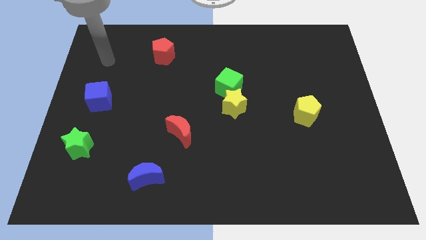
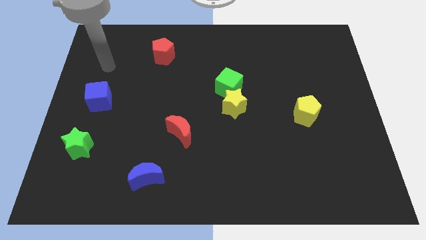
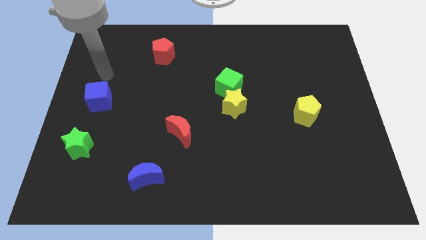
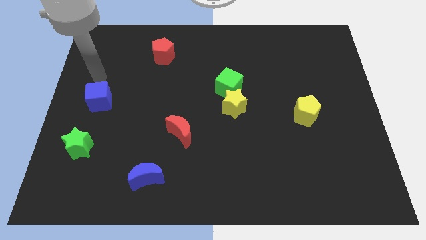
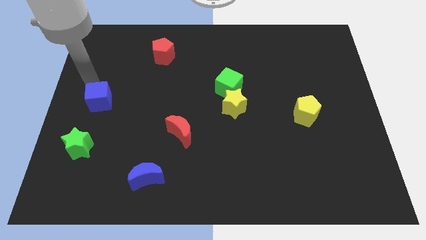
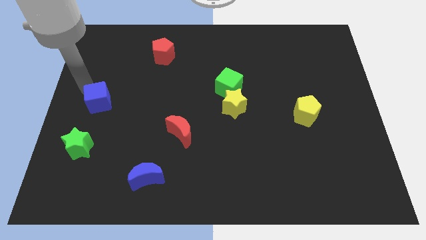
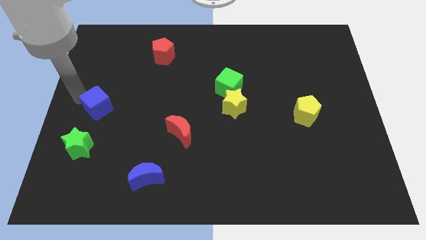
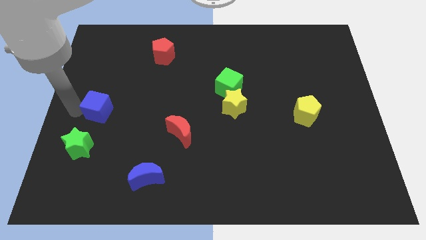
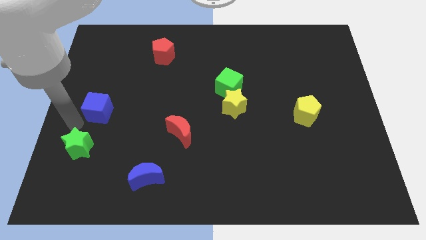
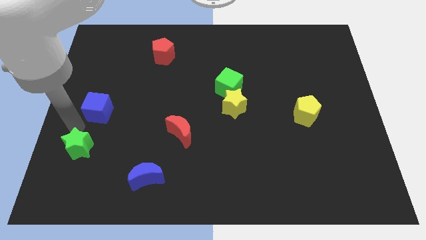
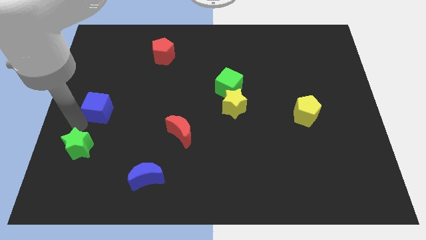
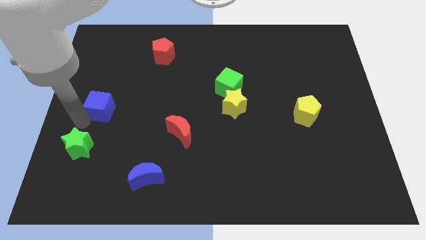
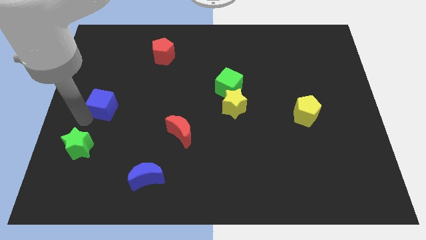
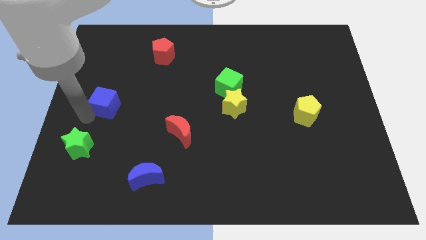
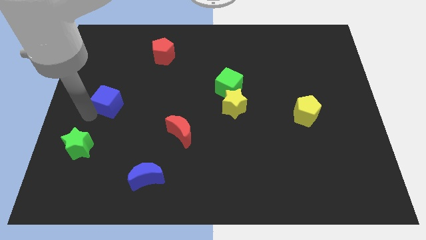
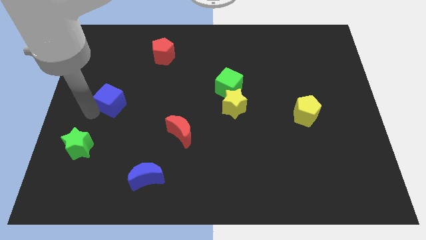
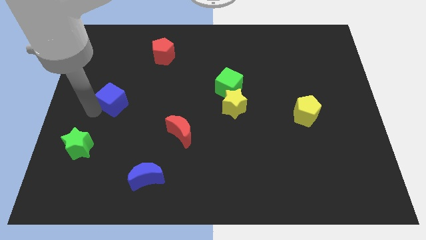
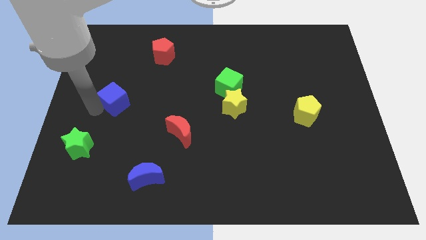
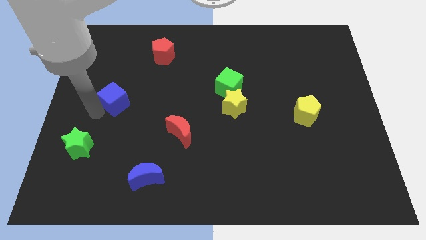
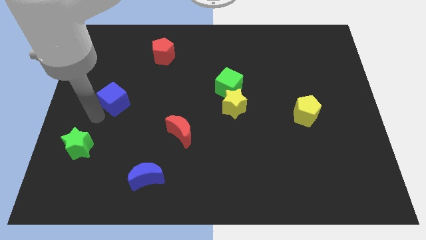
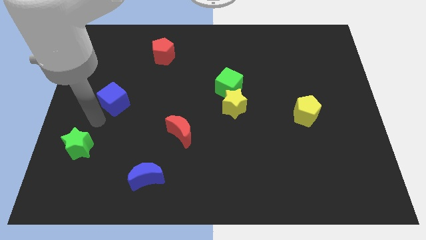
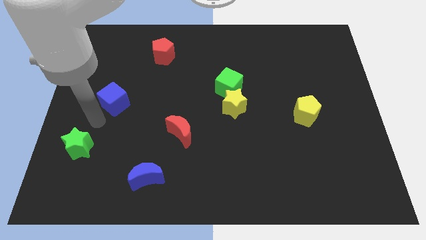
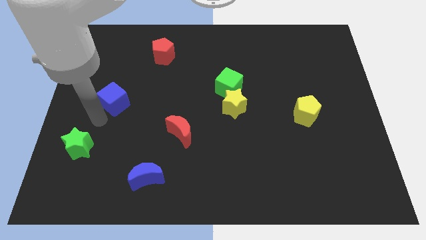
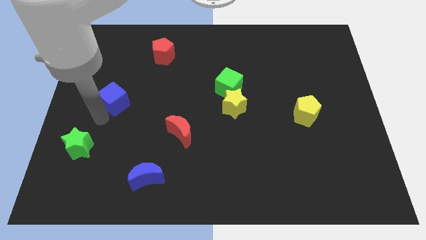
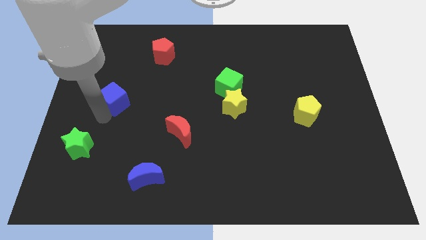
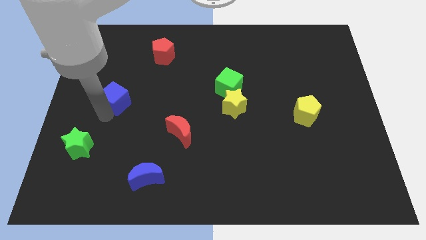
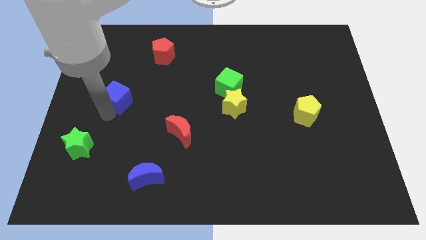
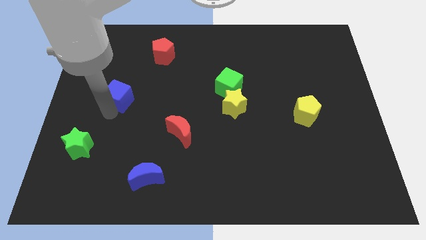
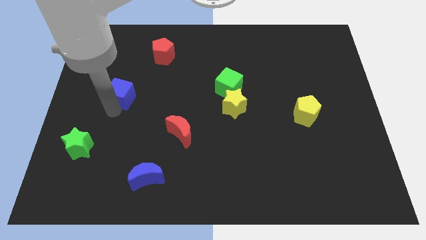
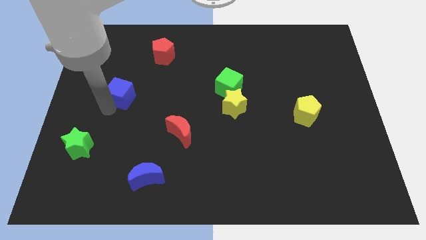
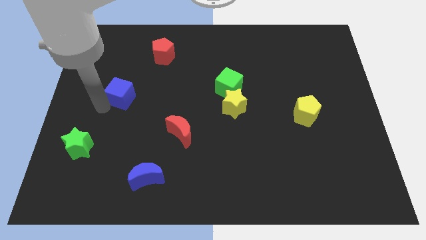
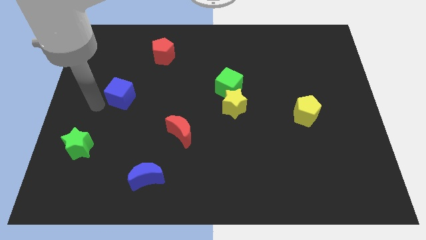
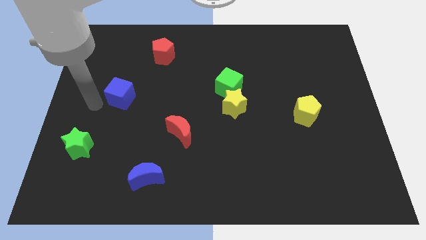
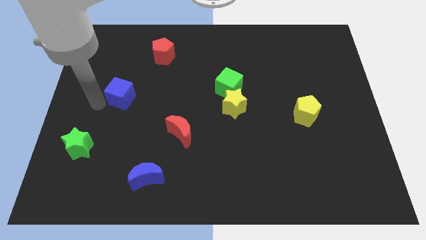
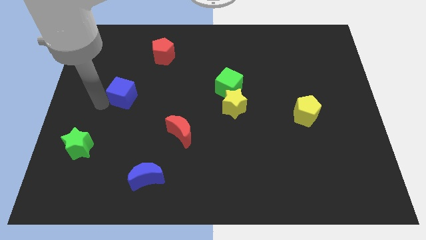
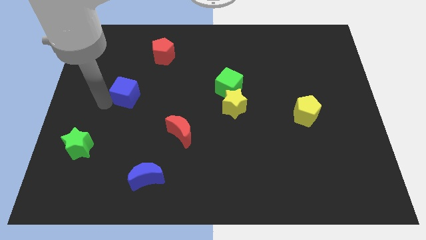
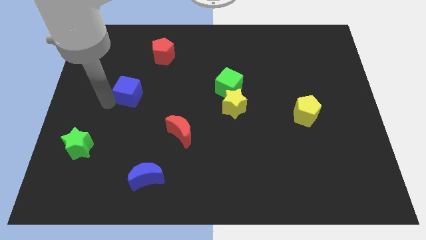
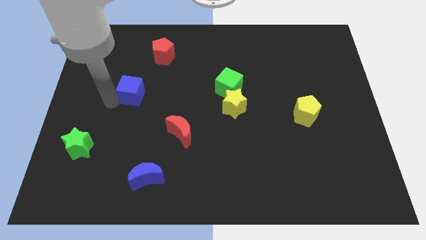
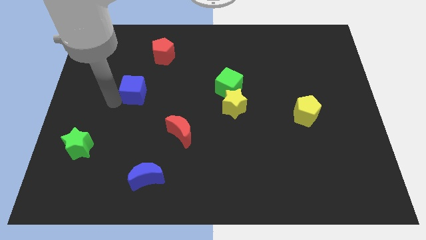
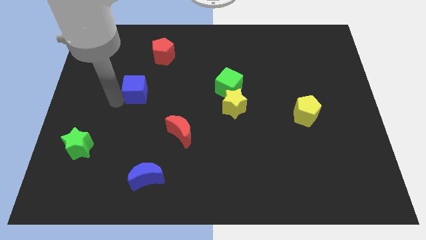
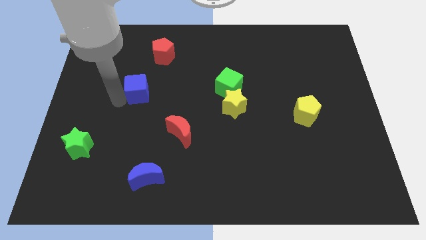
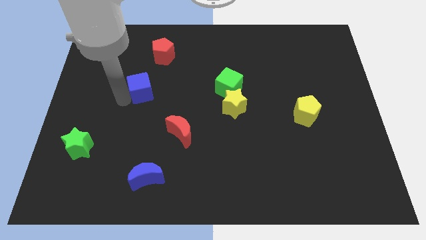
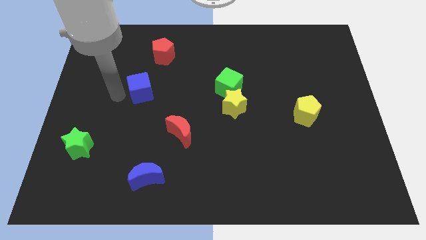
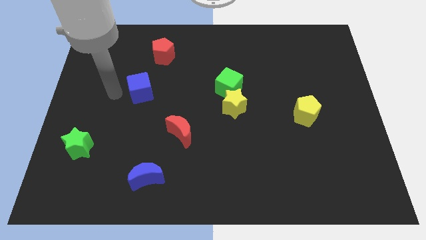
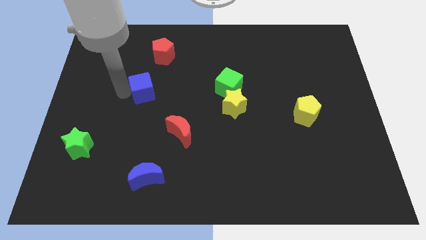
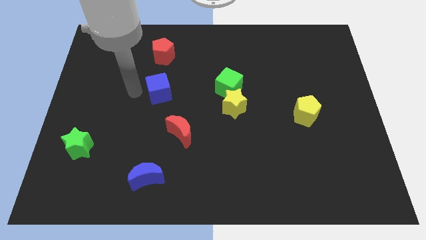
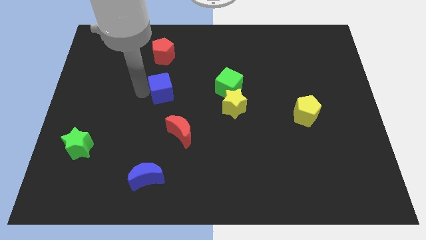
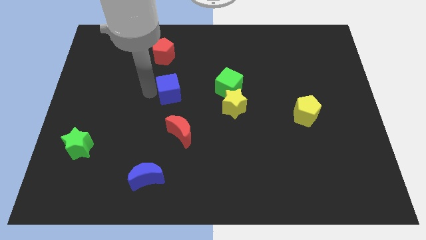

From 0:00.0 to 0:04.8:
put the blue cube just left of the green cube

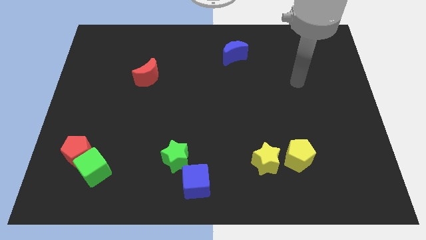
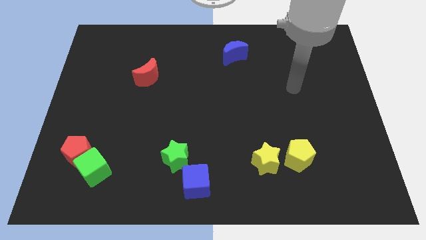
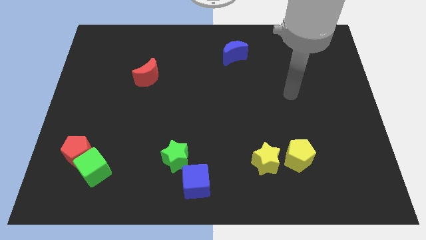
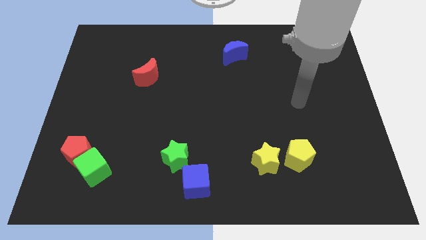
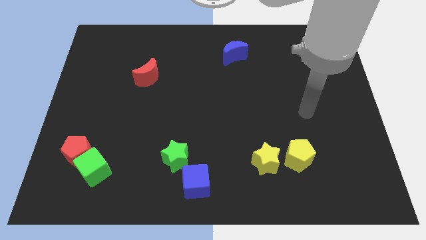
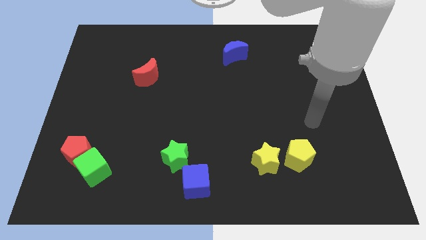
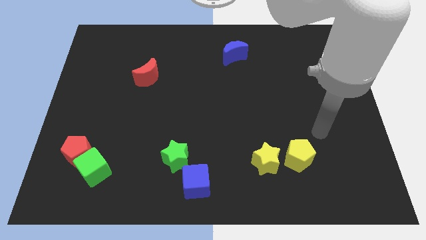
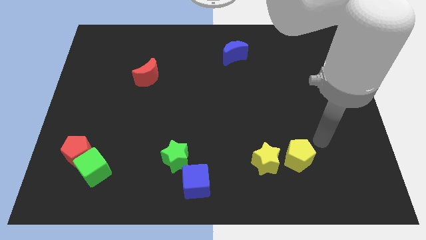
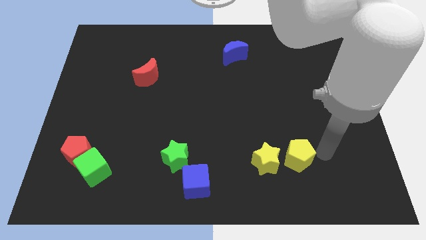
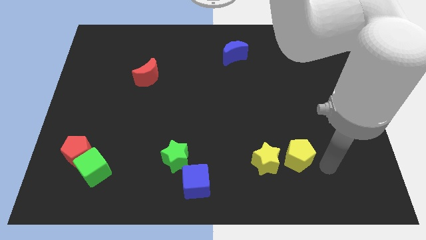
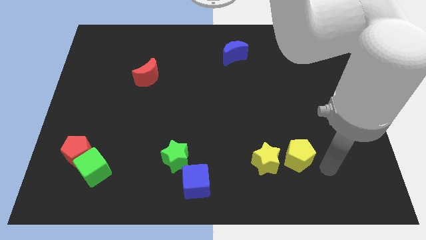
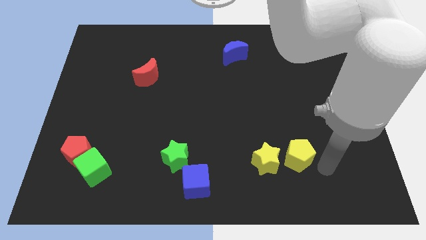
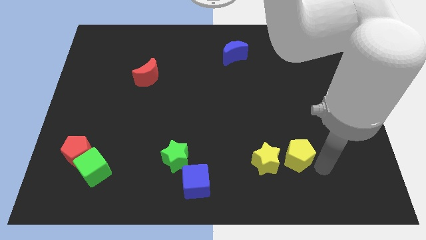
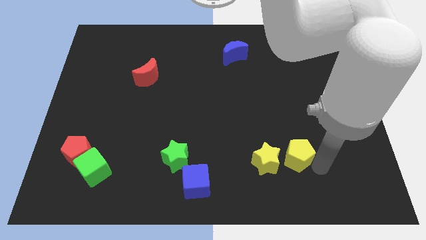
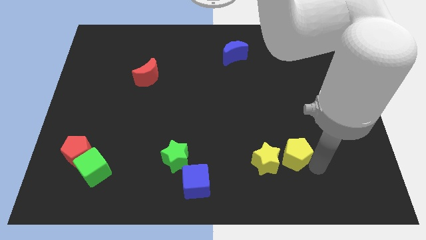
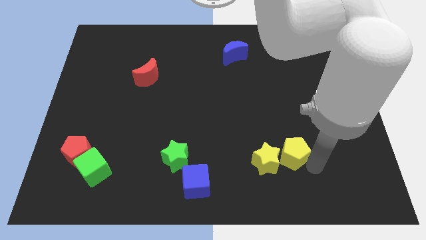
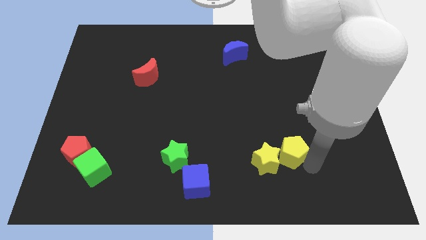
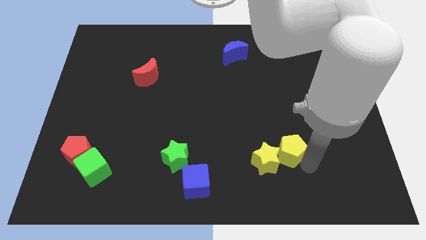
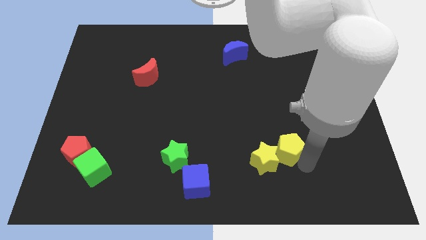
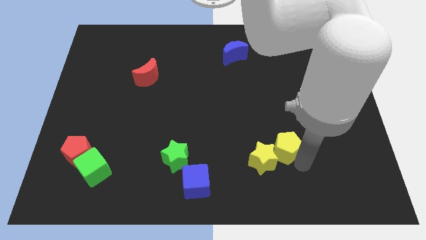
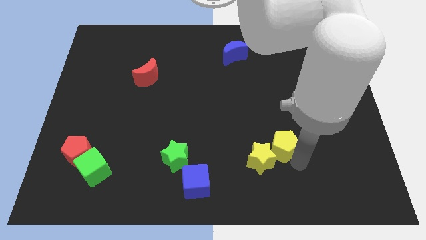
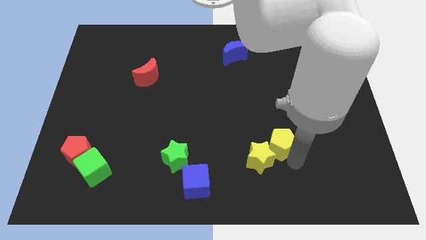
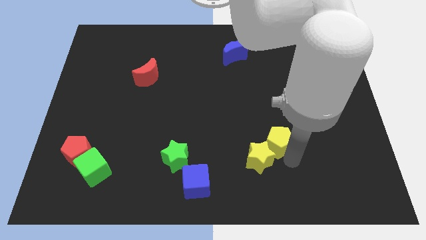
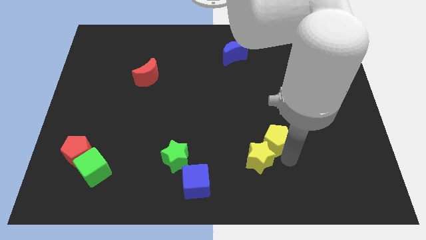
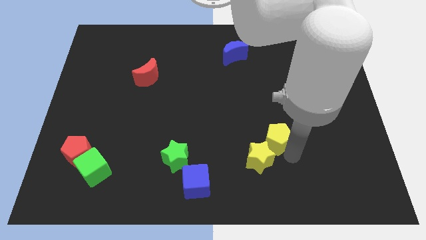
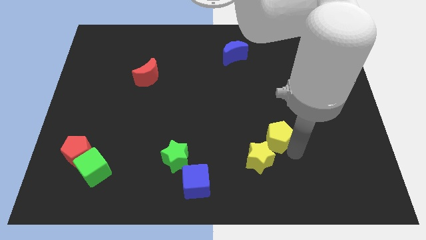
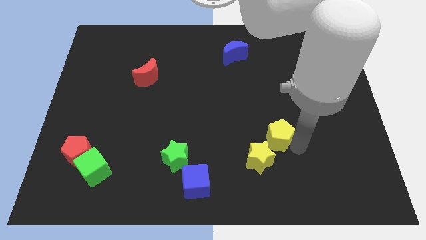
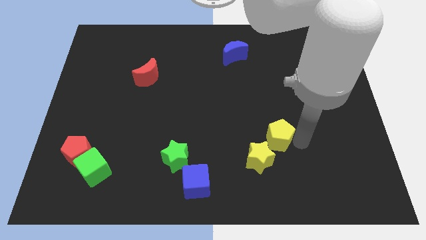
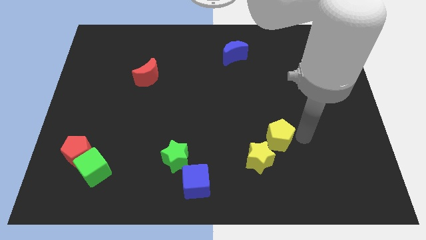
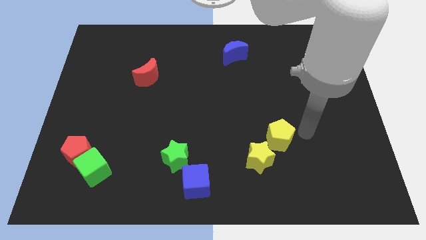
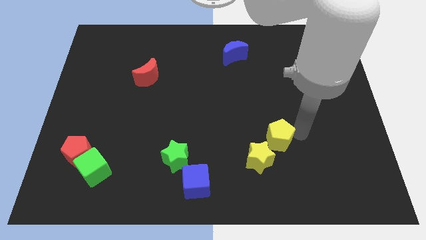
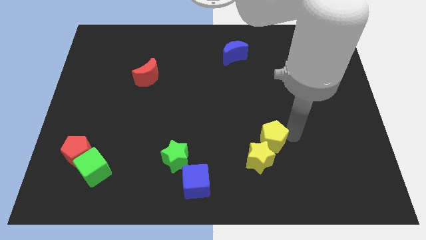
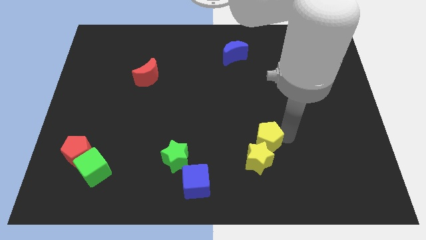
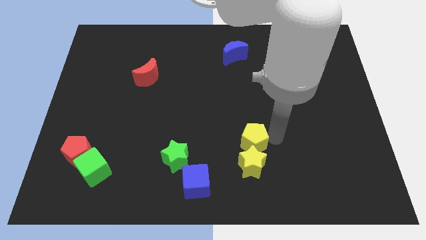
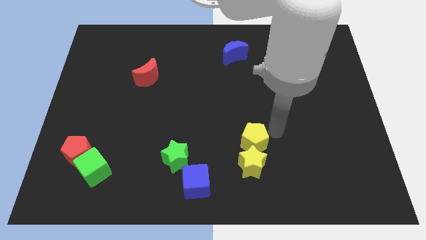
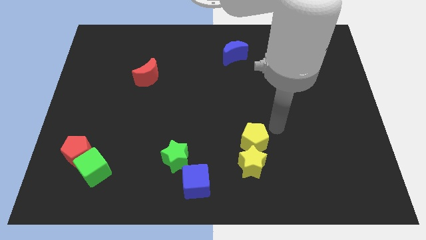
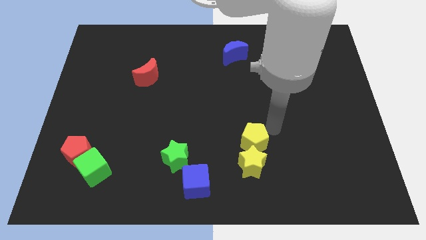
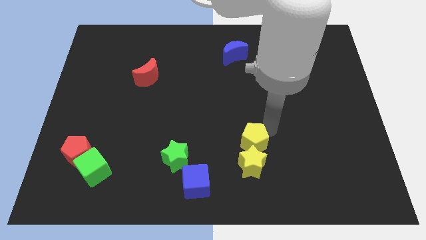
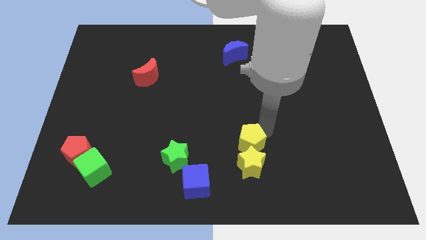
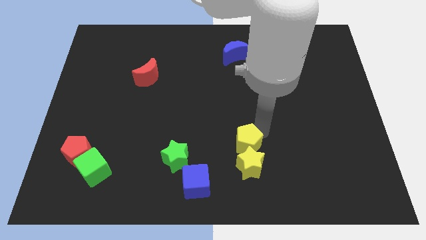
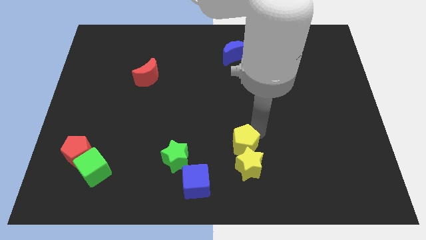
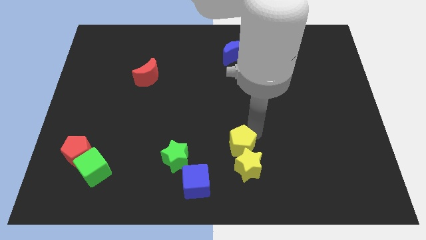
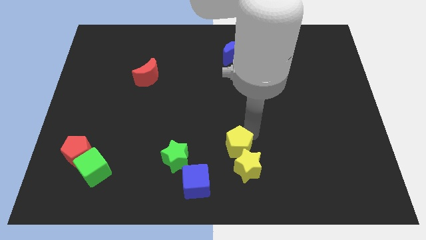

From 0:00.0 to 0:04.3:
slide the yellow pentagon to the top right side of the blue cube
